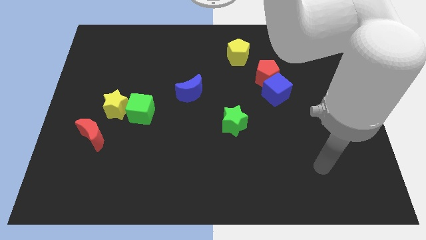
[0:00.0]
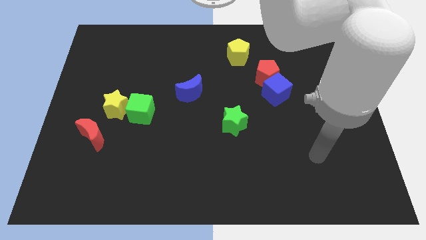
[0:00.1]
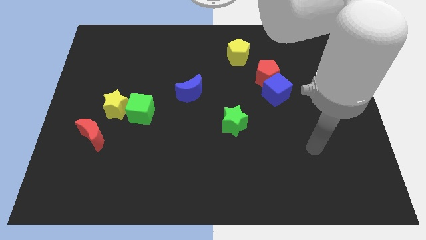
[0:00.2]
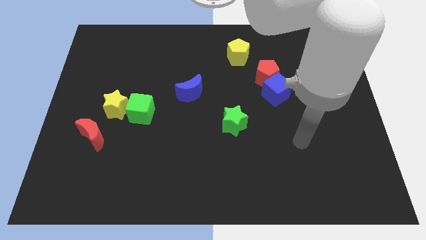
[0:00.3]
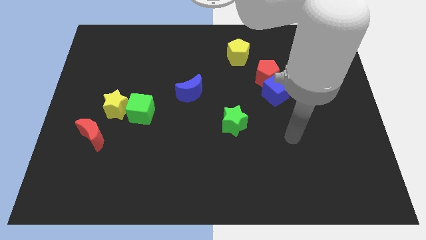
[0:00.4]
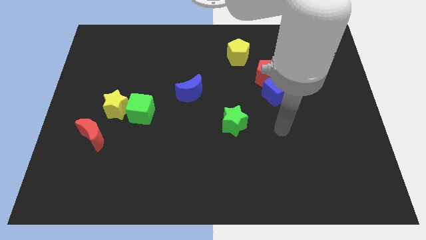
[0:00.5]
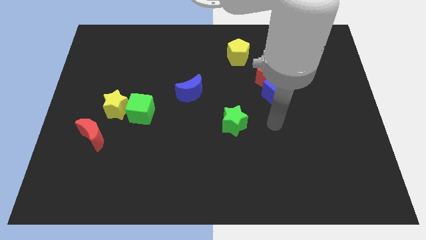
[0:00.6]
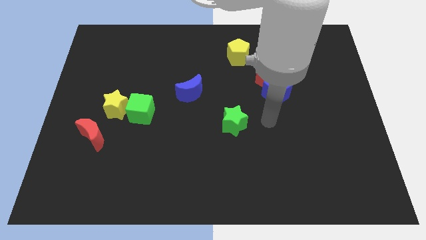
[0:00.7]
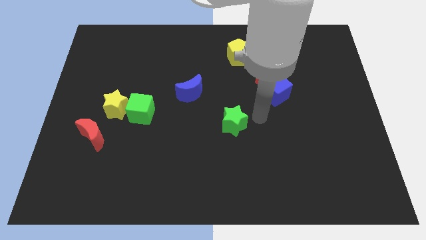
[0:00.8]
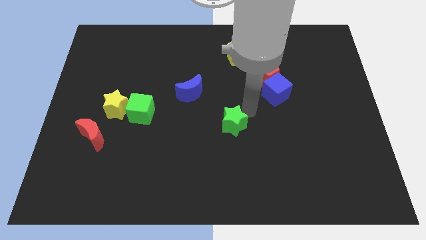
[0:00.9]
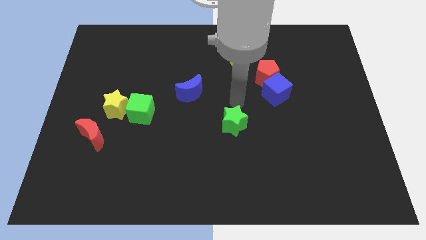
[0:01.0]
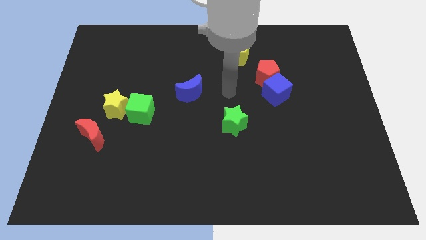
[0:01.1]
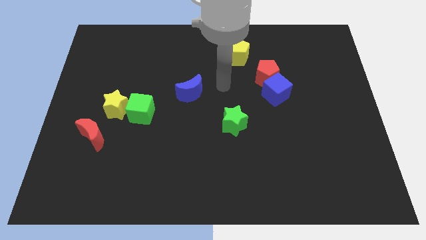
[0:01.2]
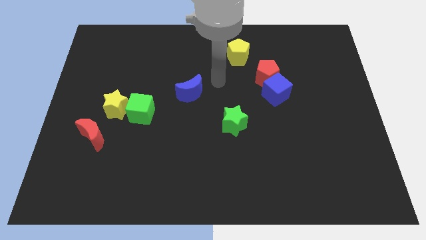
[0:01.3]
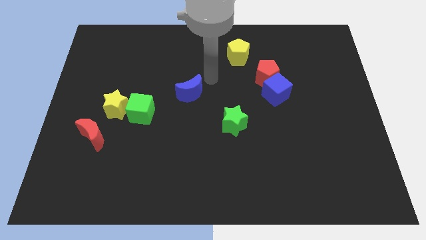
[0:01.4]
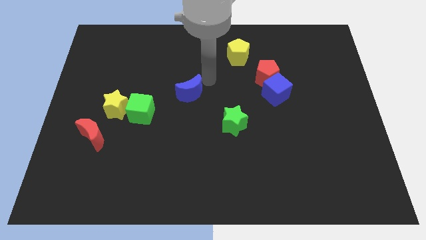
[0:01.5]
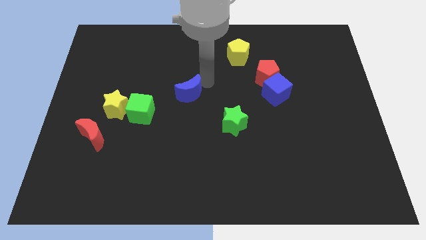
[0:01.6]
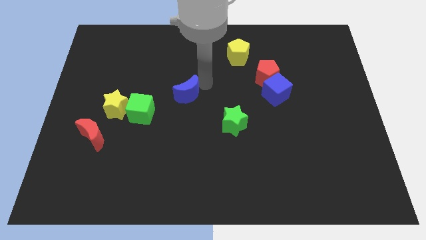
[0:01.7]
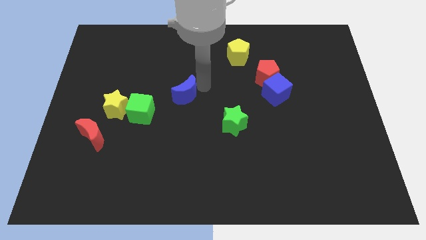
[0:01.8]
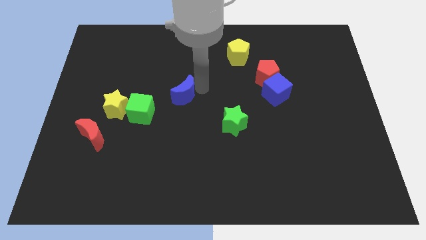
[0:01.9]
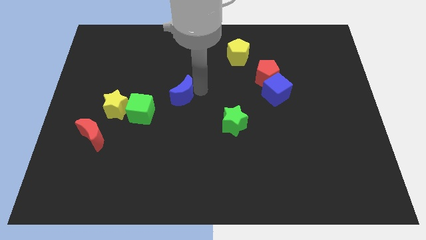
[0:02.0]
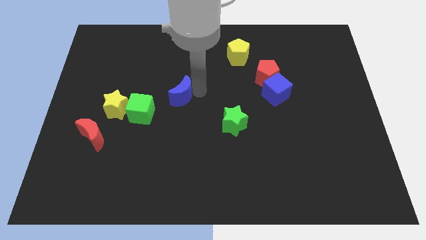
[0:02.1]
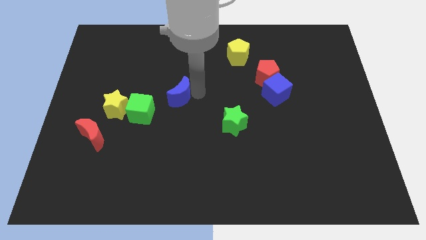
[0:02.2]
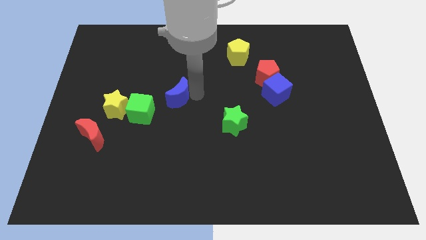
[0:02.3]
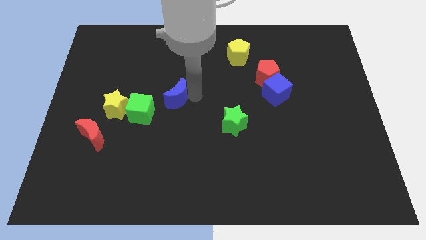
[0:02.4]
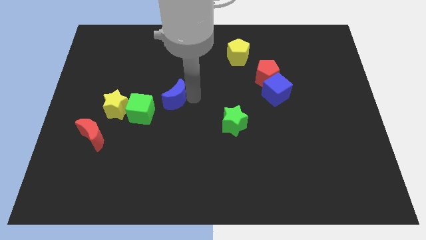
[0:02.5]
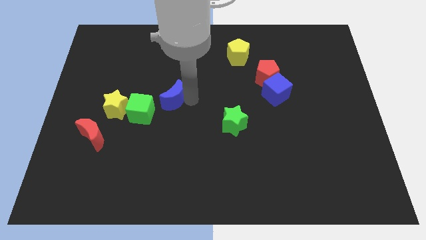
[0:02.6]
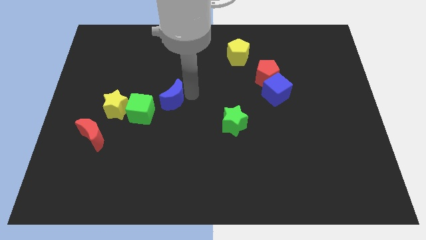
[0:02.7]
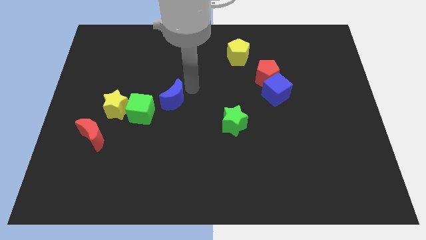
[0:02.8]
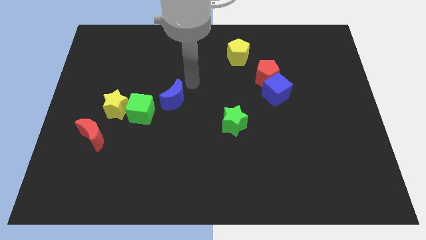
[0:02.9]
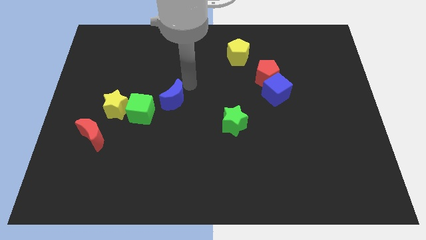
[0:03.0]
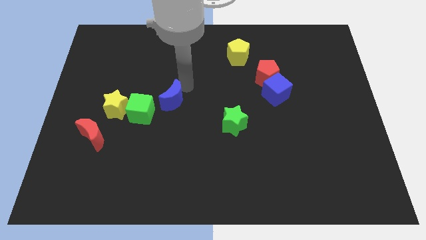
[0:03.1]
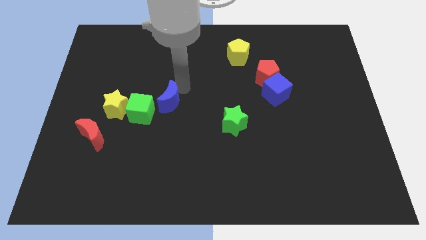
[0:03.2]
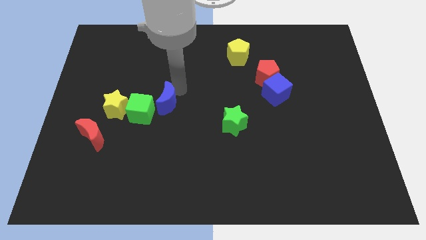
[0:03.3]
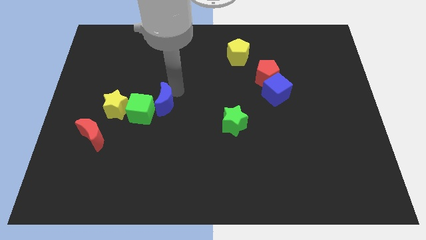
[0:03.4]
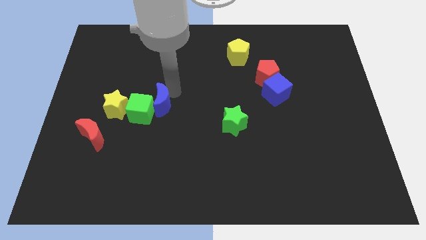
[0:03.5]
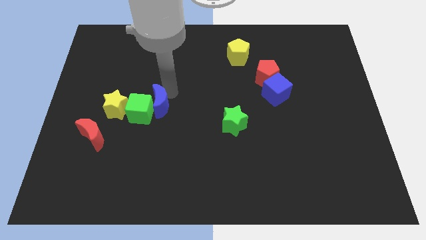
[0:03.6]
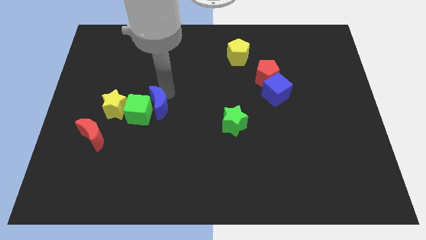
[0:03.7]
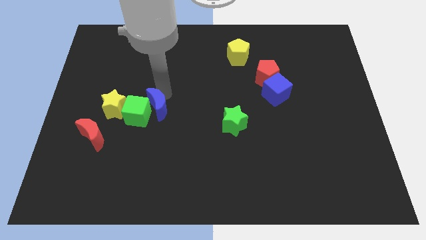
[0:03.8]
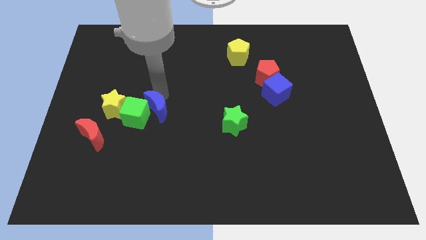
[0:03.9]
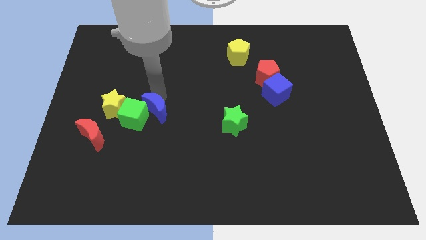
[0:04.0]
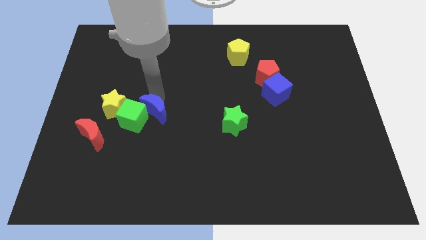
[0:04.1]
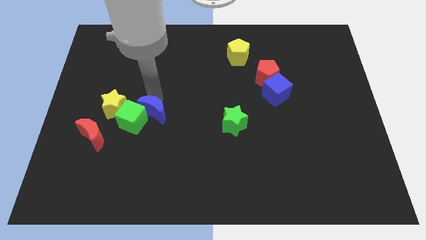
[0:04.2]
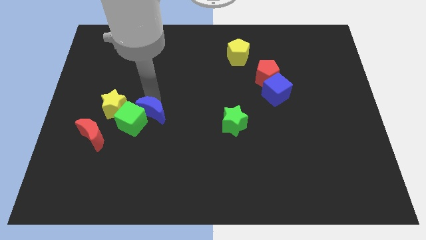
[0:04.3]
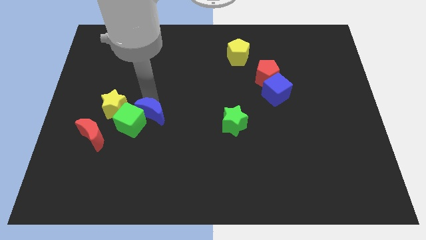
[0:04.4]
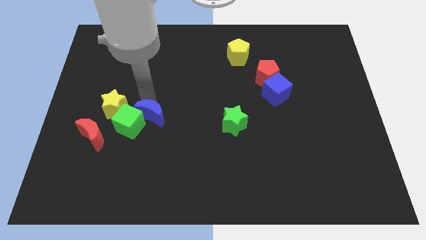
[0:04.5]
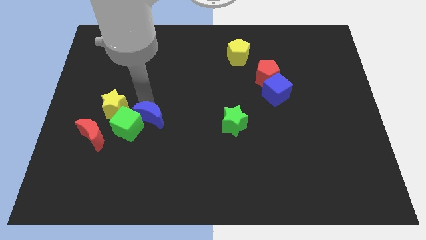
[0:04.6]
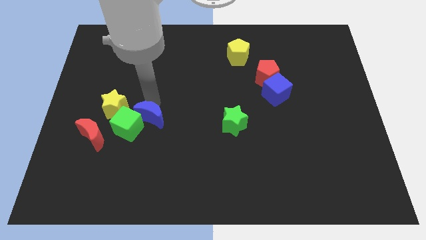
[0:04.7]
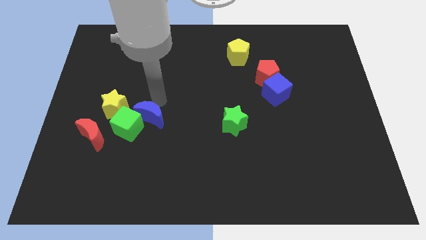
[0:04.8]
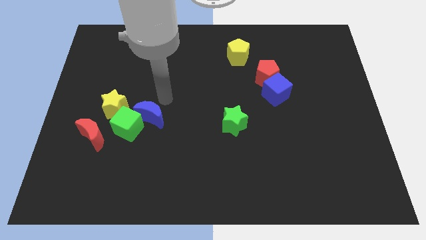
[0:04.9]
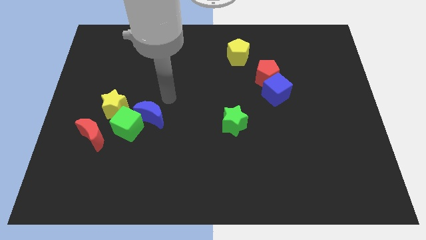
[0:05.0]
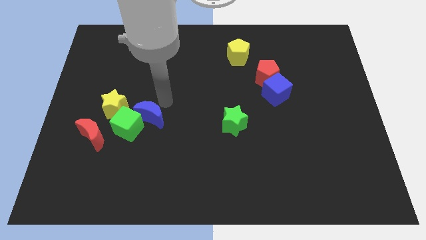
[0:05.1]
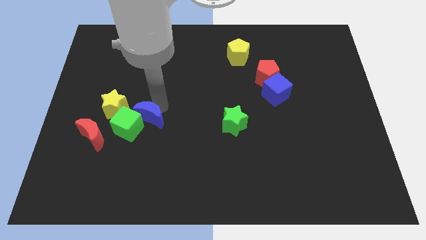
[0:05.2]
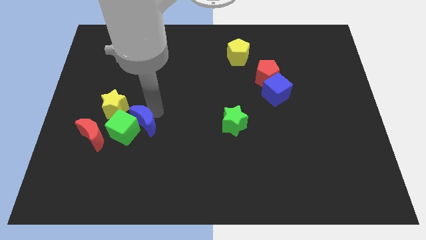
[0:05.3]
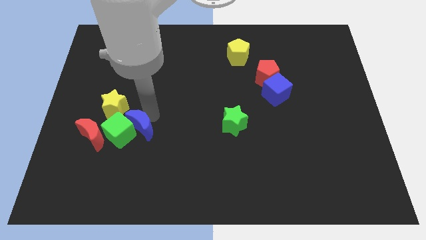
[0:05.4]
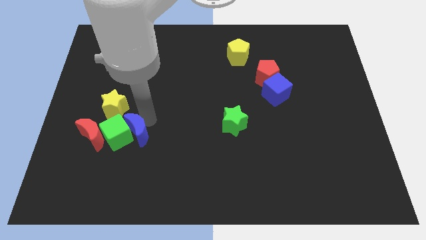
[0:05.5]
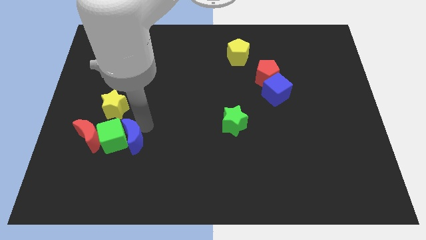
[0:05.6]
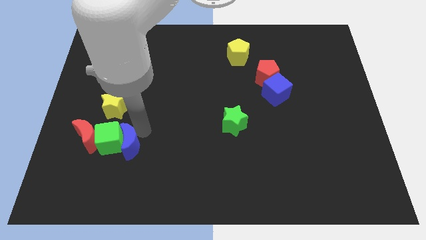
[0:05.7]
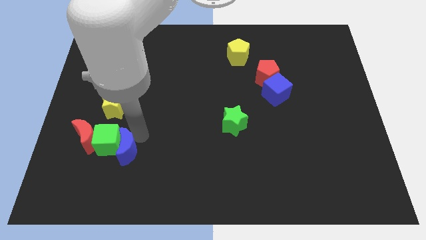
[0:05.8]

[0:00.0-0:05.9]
move the blue moon down and then to the left

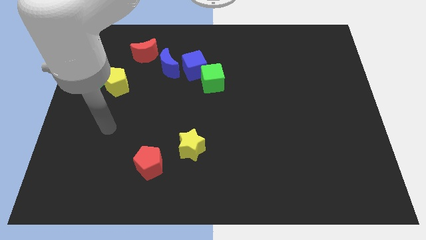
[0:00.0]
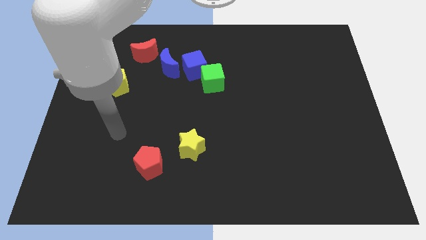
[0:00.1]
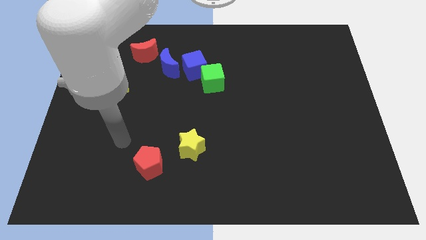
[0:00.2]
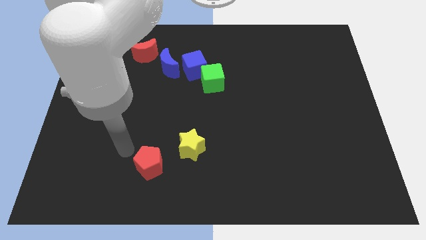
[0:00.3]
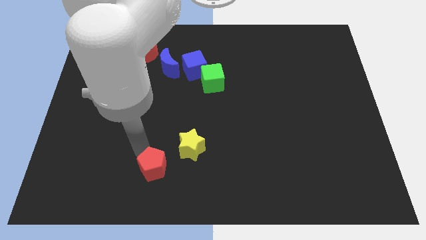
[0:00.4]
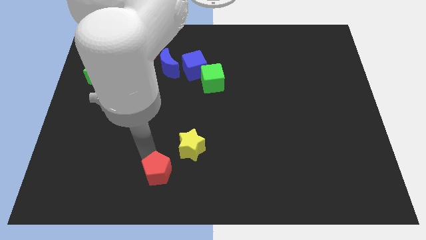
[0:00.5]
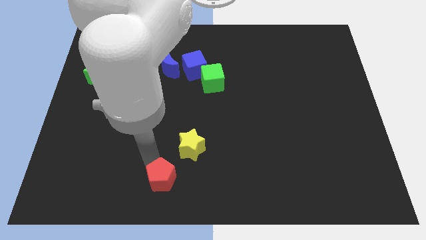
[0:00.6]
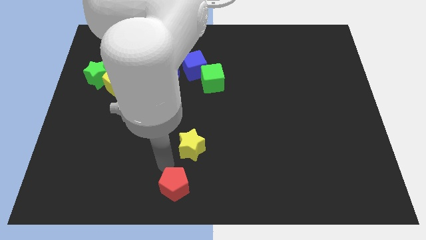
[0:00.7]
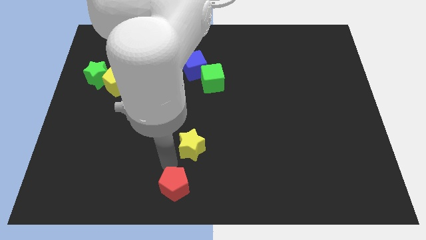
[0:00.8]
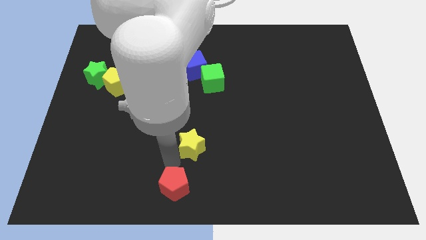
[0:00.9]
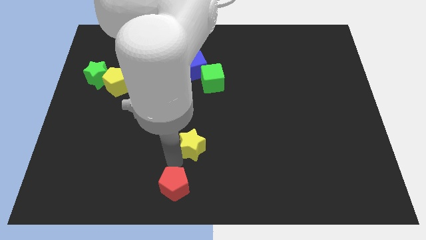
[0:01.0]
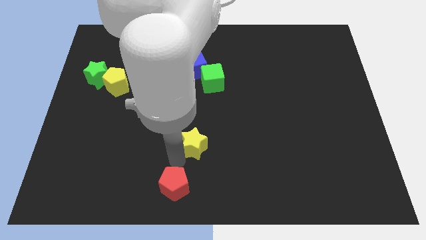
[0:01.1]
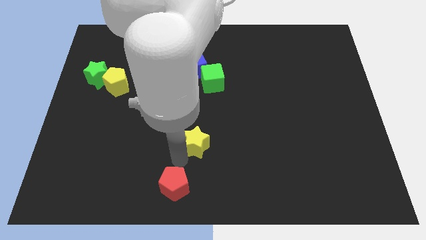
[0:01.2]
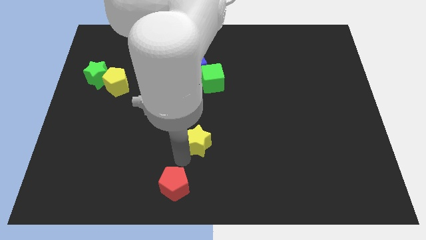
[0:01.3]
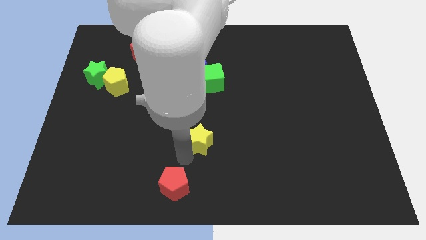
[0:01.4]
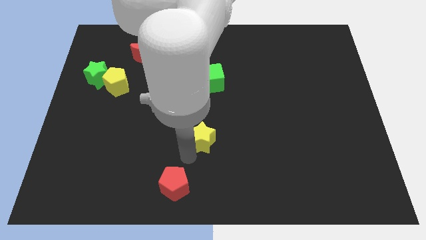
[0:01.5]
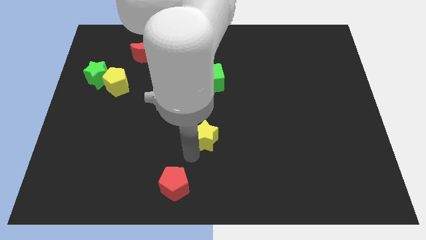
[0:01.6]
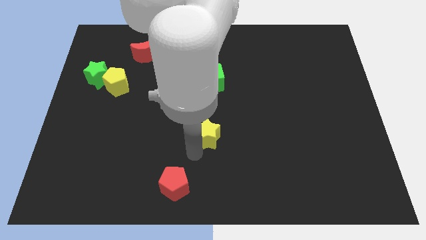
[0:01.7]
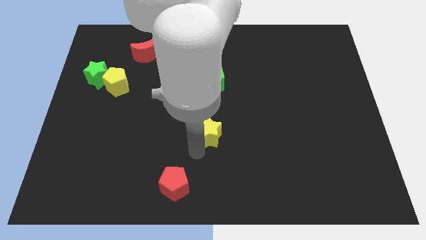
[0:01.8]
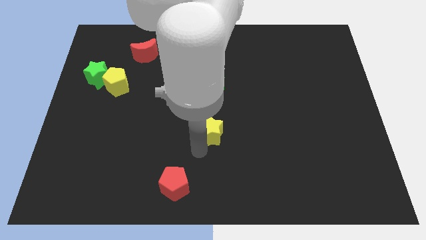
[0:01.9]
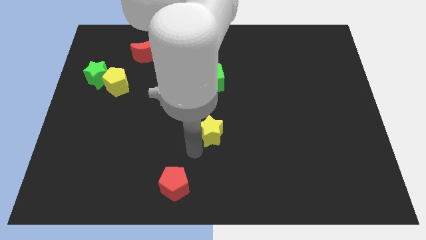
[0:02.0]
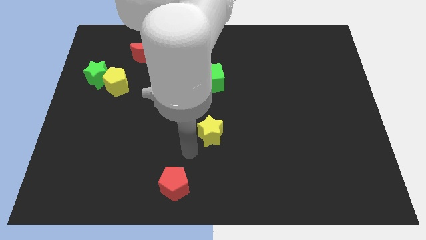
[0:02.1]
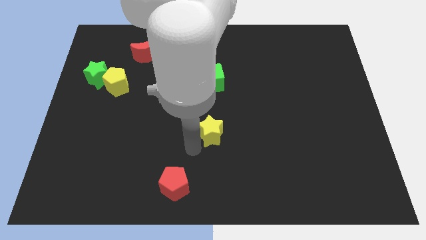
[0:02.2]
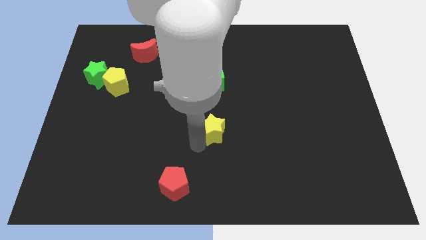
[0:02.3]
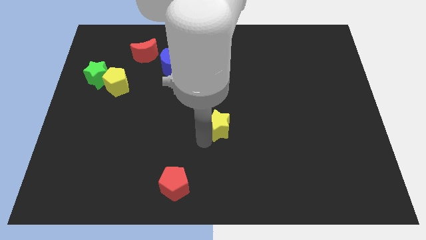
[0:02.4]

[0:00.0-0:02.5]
slide the yellow star upwards and to the right diagonally somewhat
